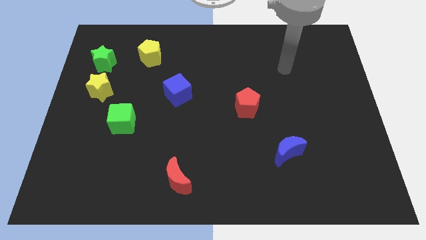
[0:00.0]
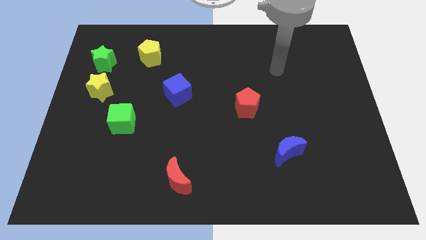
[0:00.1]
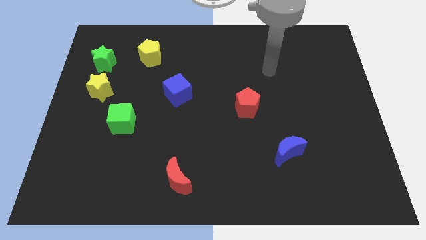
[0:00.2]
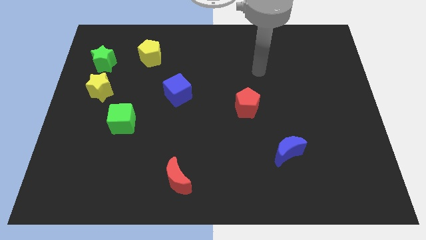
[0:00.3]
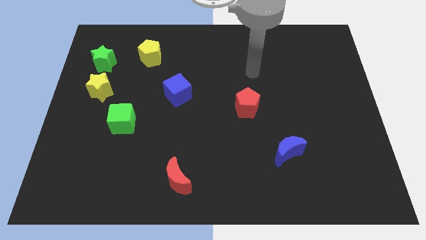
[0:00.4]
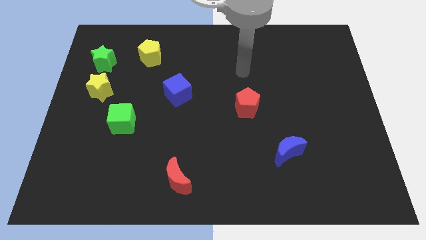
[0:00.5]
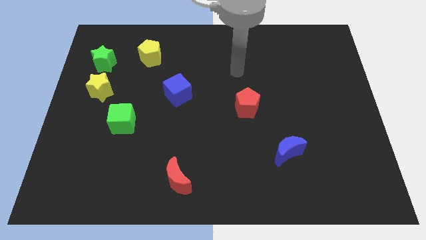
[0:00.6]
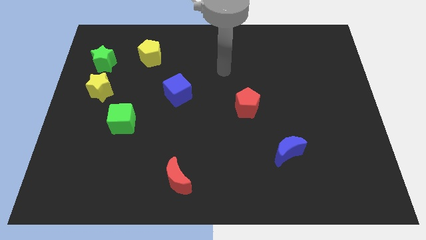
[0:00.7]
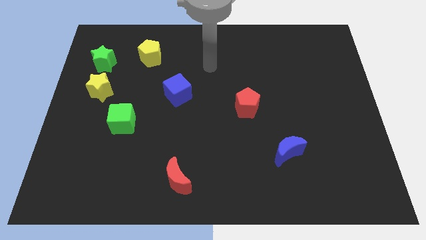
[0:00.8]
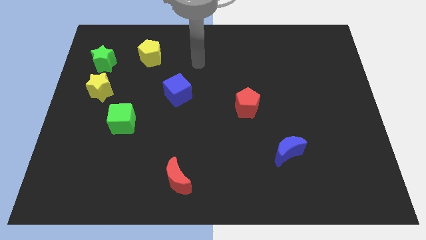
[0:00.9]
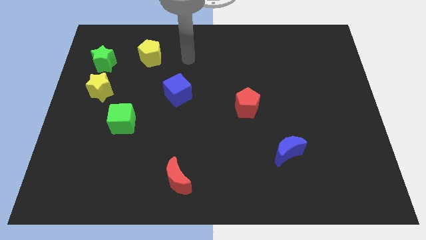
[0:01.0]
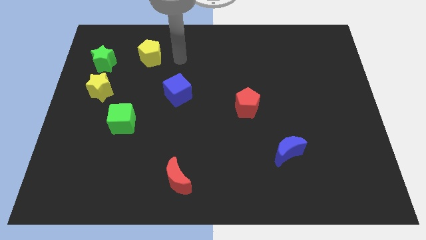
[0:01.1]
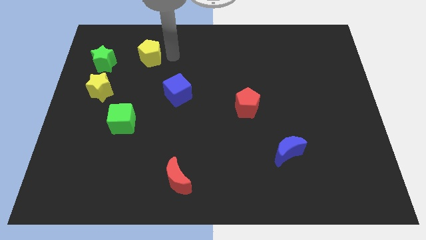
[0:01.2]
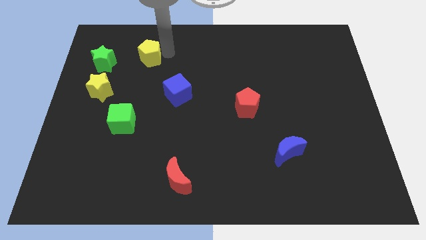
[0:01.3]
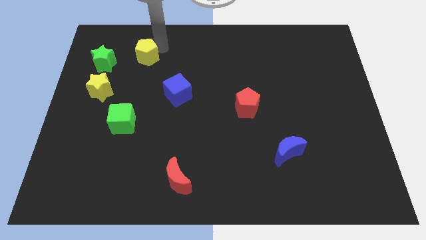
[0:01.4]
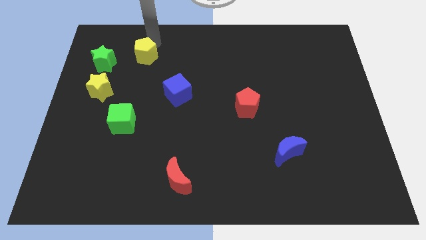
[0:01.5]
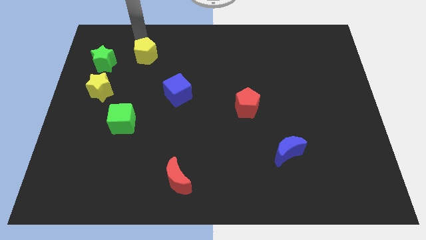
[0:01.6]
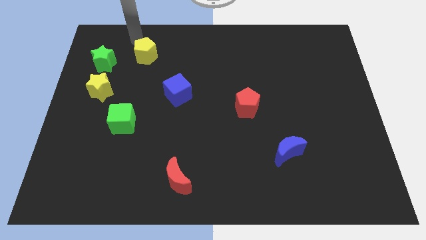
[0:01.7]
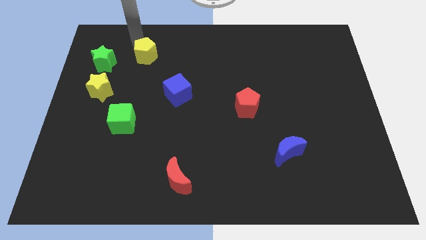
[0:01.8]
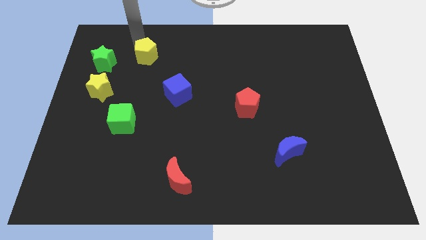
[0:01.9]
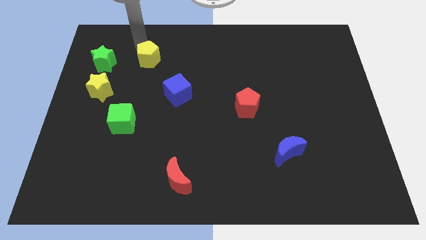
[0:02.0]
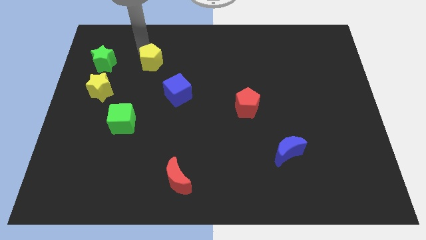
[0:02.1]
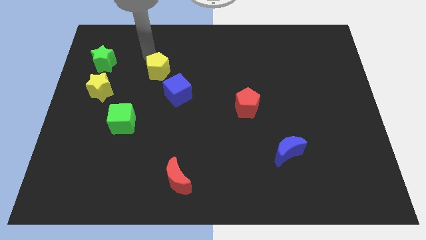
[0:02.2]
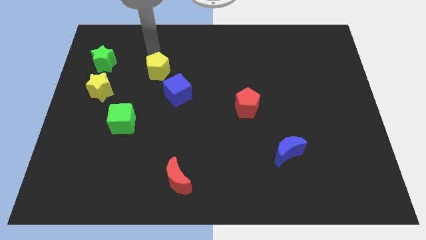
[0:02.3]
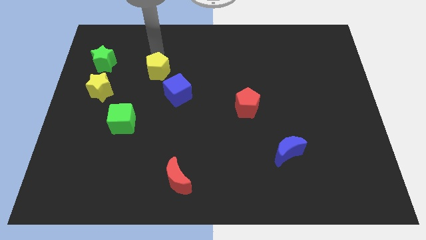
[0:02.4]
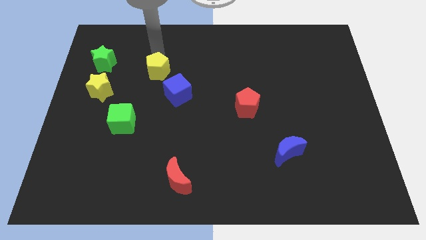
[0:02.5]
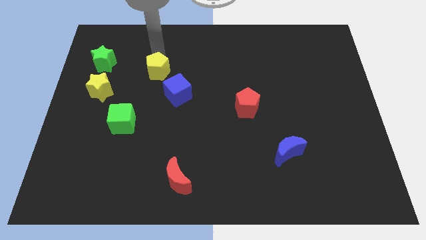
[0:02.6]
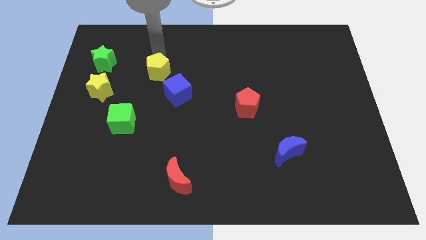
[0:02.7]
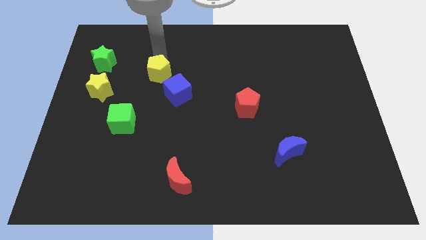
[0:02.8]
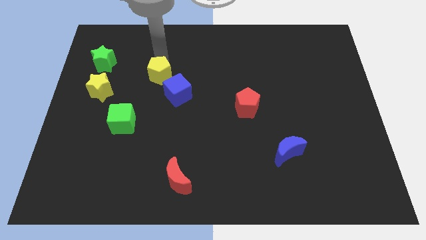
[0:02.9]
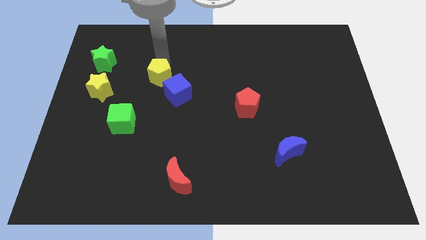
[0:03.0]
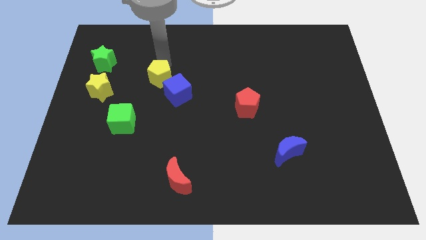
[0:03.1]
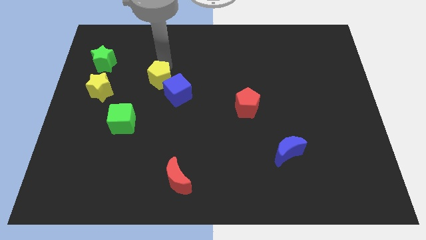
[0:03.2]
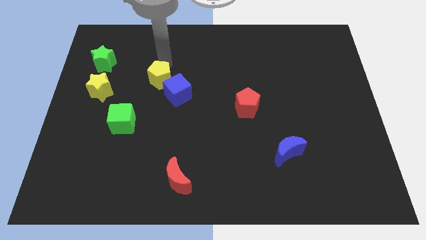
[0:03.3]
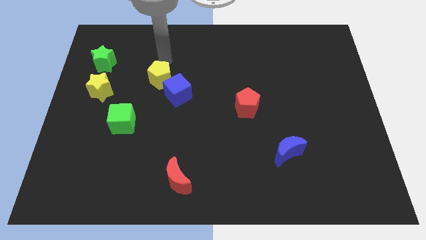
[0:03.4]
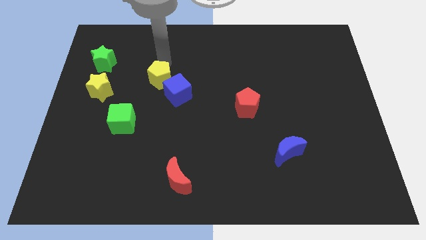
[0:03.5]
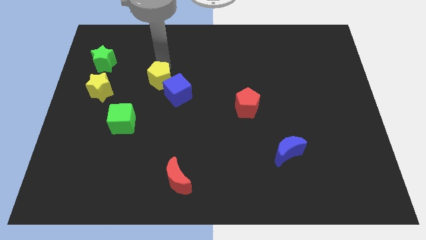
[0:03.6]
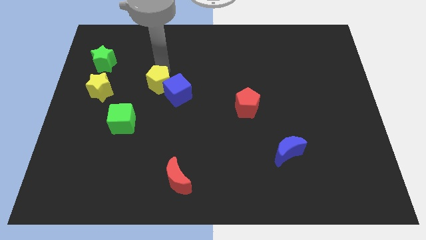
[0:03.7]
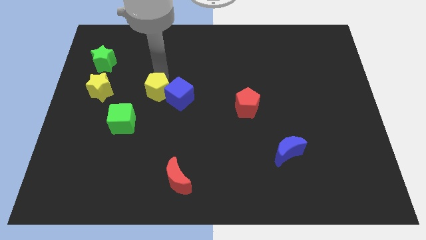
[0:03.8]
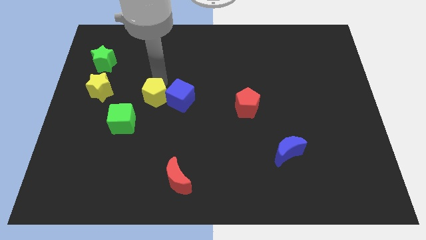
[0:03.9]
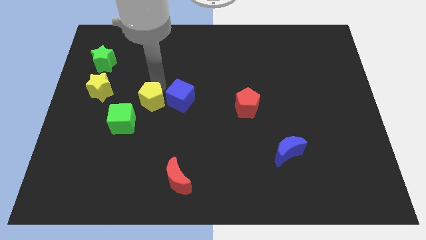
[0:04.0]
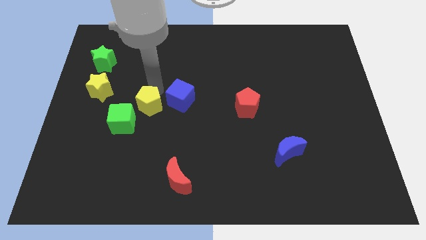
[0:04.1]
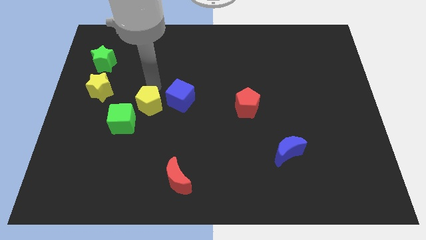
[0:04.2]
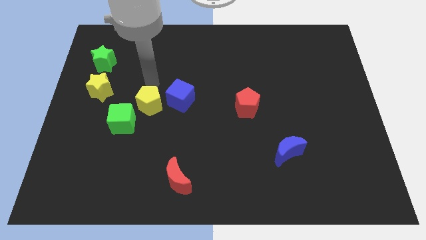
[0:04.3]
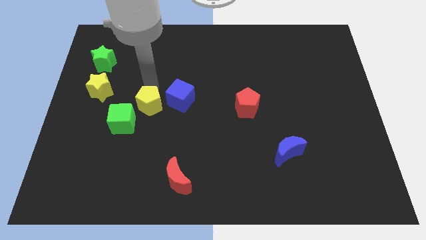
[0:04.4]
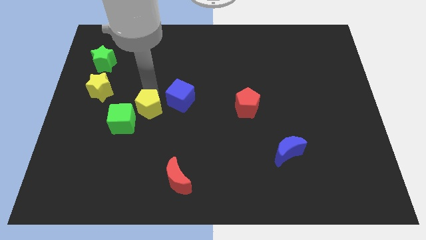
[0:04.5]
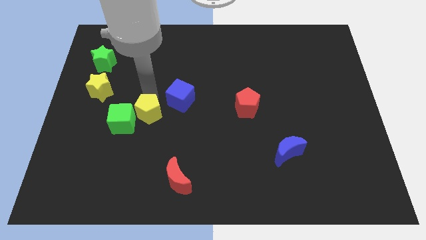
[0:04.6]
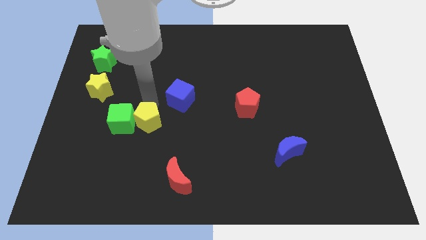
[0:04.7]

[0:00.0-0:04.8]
push the yellow pentagon downwards

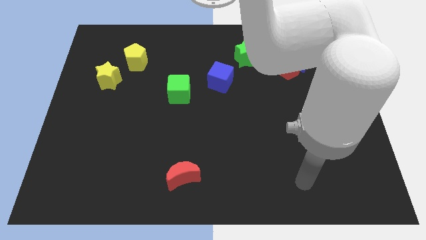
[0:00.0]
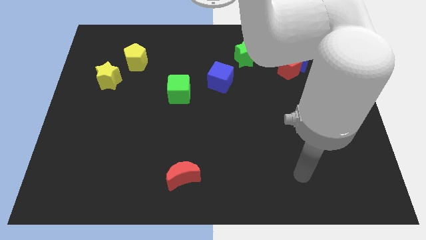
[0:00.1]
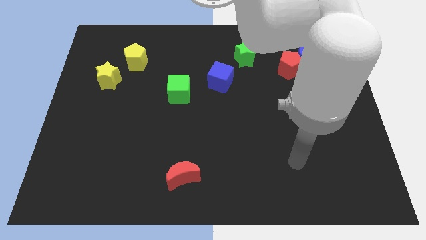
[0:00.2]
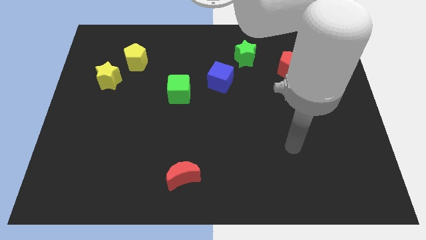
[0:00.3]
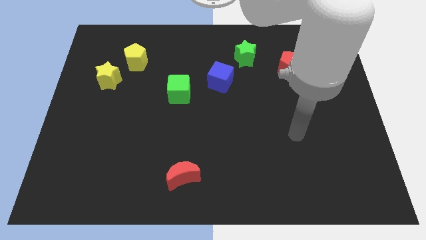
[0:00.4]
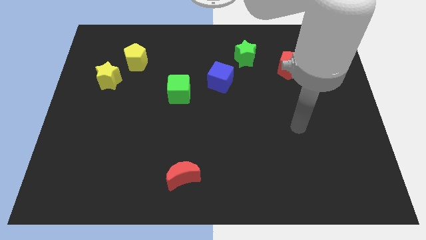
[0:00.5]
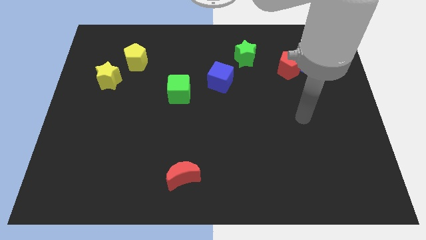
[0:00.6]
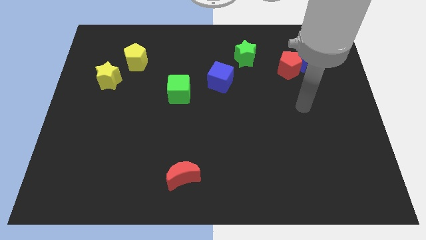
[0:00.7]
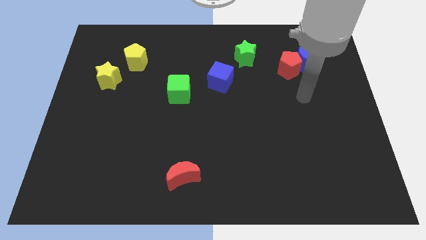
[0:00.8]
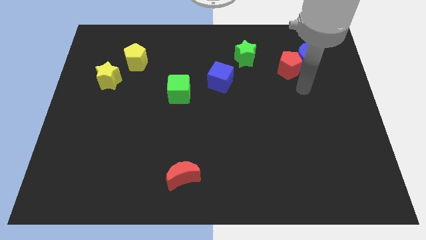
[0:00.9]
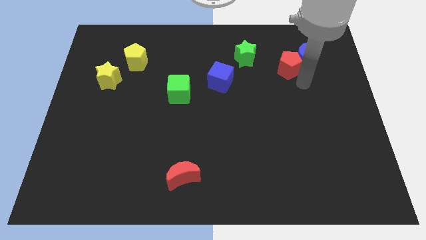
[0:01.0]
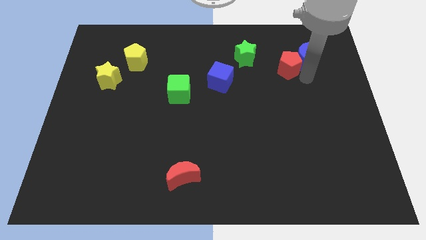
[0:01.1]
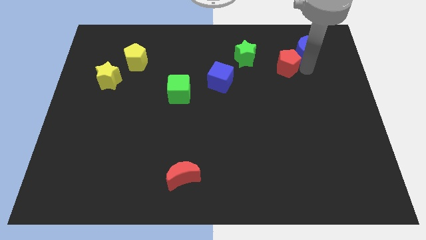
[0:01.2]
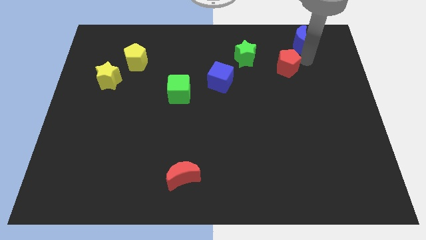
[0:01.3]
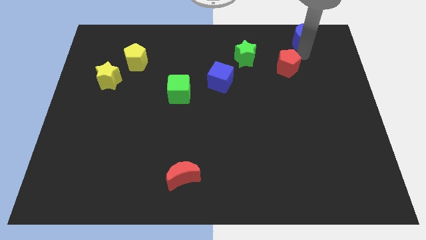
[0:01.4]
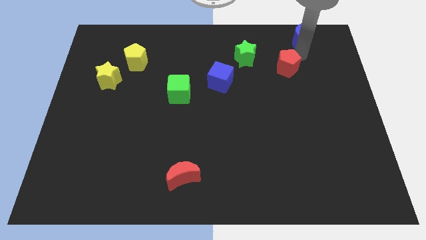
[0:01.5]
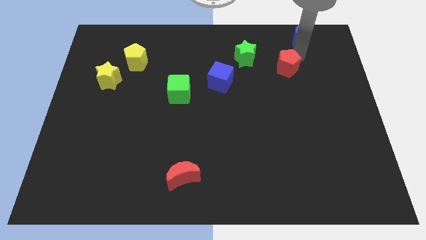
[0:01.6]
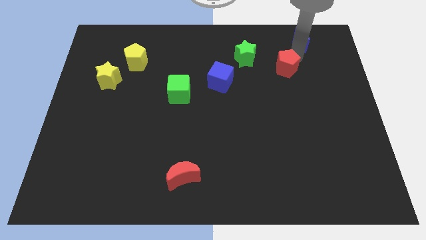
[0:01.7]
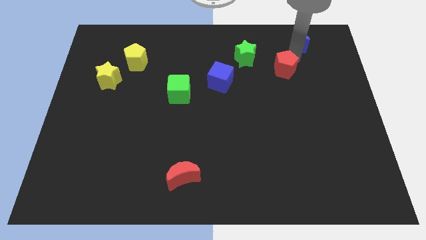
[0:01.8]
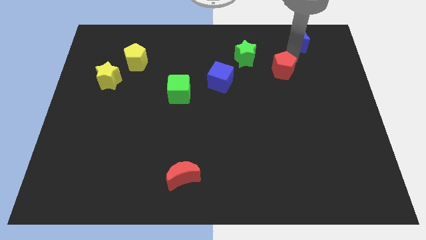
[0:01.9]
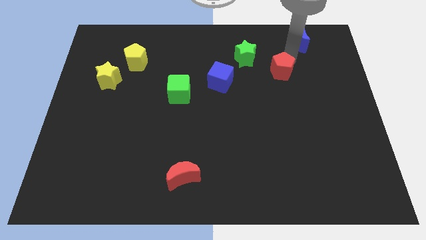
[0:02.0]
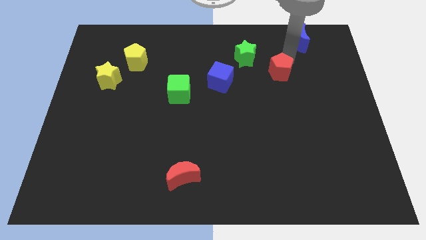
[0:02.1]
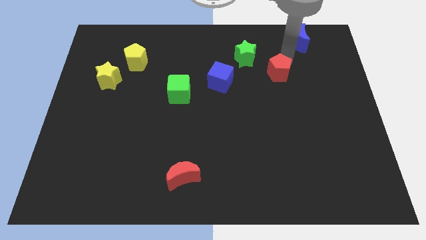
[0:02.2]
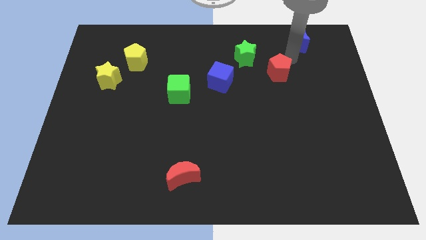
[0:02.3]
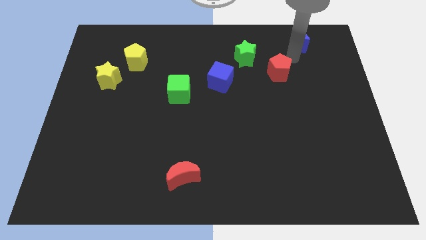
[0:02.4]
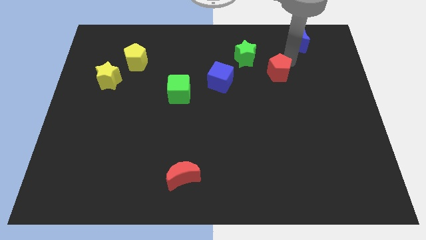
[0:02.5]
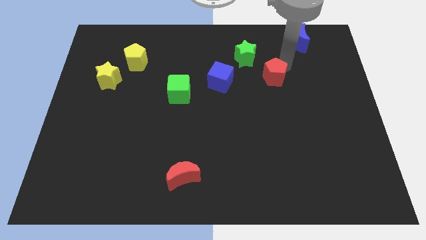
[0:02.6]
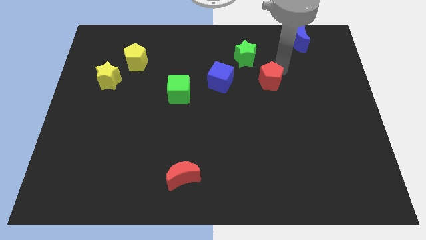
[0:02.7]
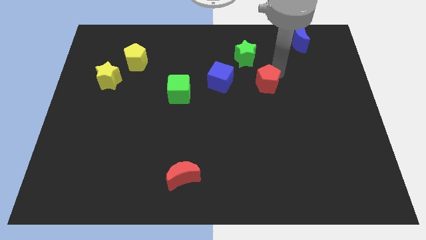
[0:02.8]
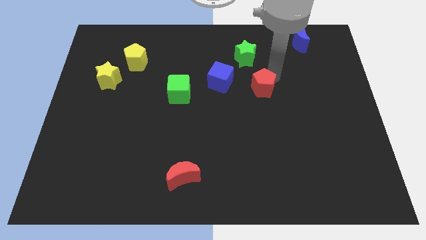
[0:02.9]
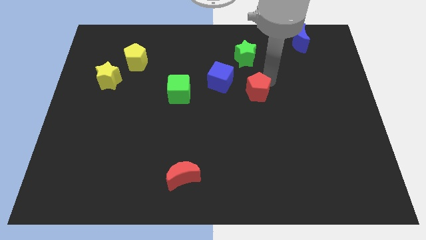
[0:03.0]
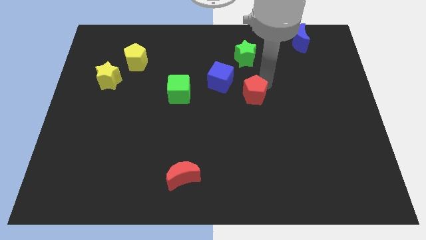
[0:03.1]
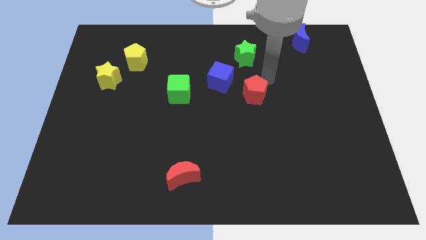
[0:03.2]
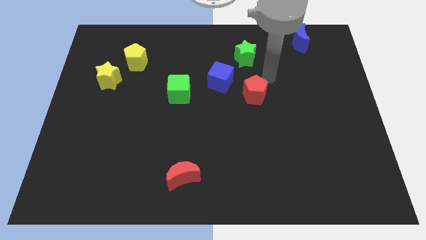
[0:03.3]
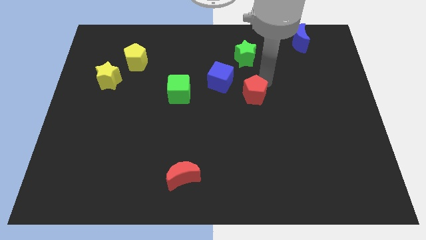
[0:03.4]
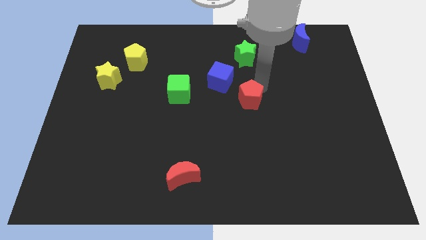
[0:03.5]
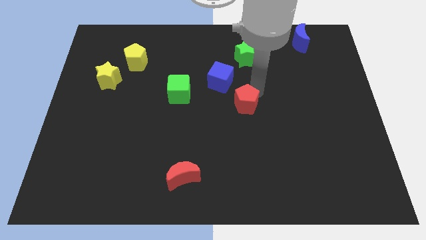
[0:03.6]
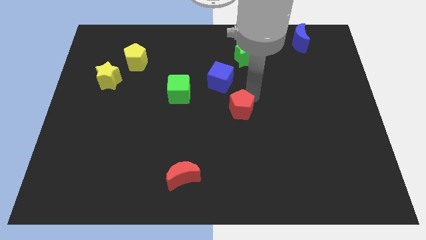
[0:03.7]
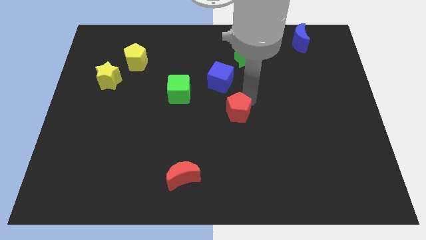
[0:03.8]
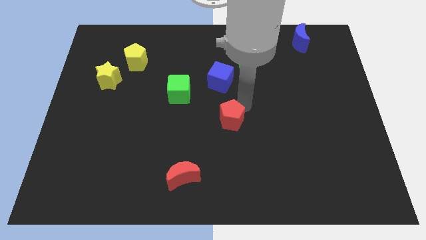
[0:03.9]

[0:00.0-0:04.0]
slide the red pentagon down and to the left
